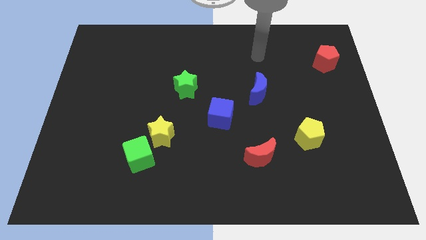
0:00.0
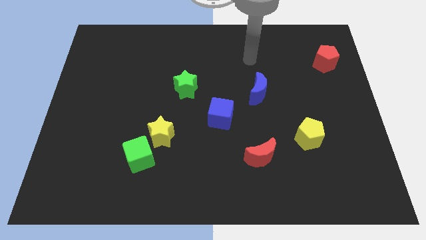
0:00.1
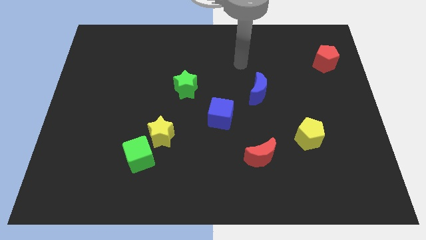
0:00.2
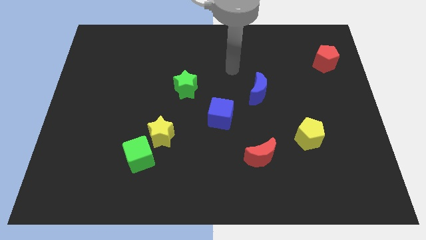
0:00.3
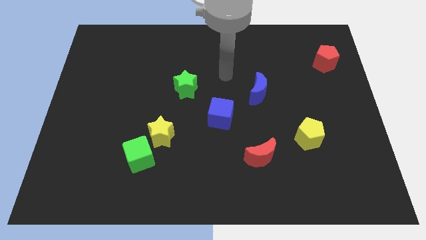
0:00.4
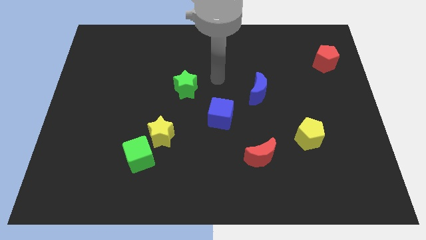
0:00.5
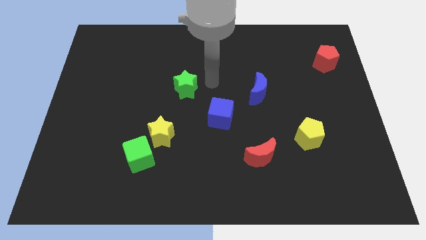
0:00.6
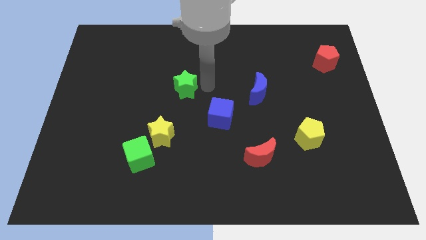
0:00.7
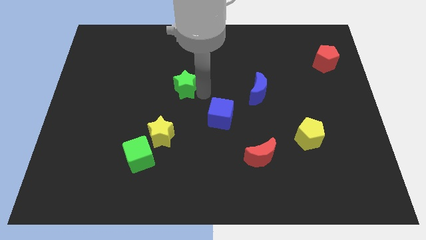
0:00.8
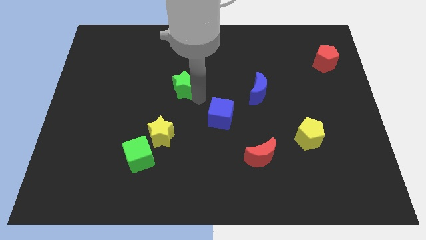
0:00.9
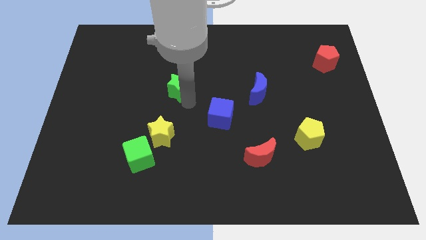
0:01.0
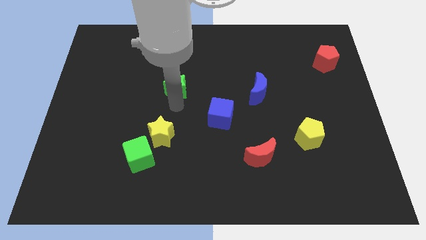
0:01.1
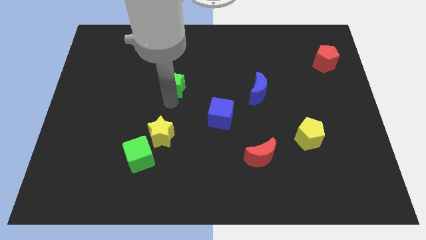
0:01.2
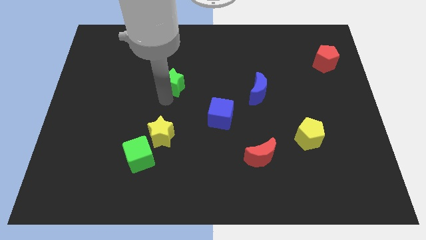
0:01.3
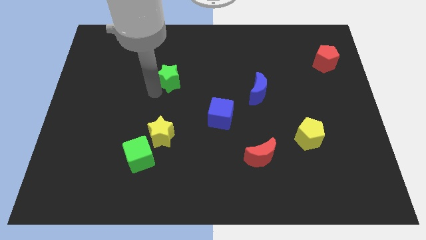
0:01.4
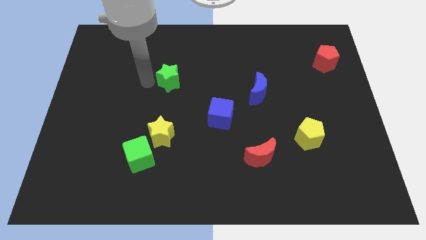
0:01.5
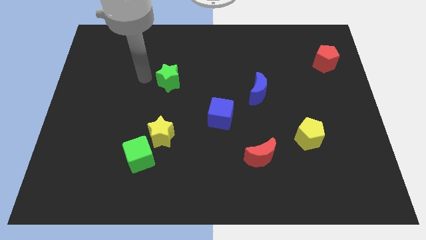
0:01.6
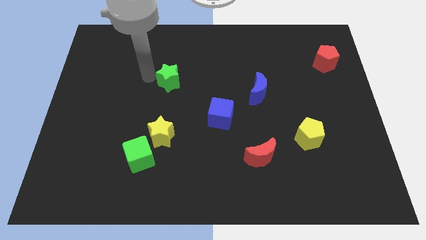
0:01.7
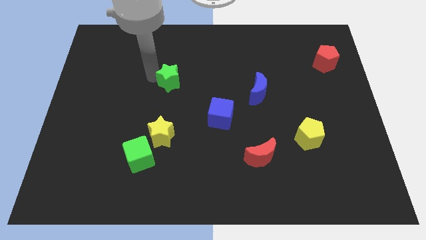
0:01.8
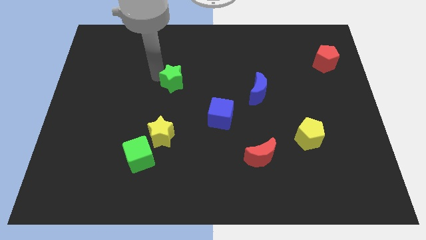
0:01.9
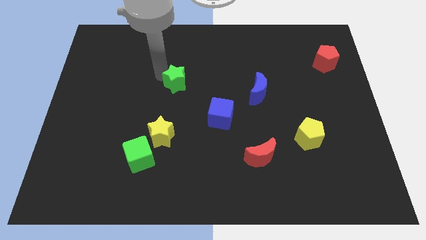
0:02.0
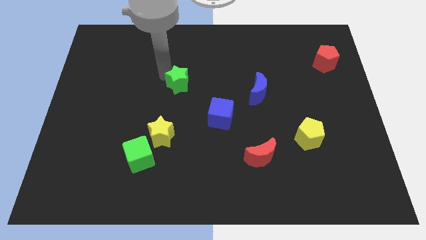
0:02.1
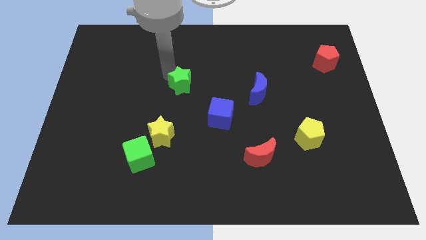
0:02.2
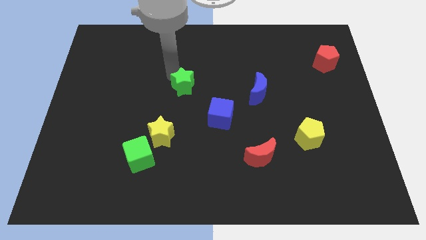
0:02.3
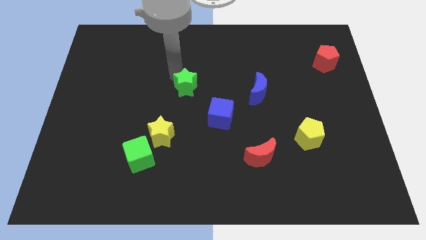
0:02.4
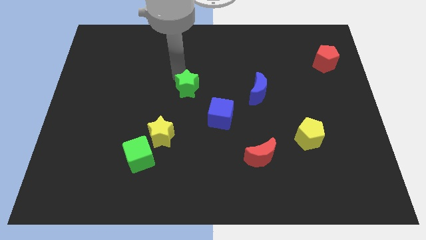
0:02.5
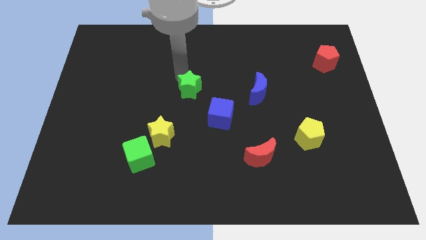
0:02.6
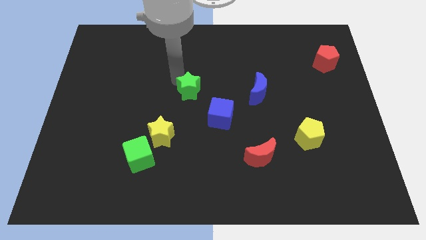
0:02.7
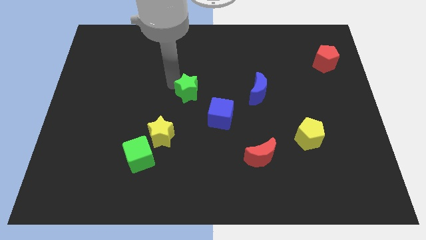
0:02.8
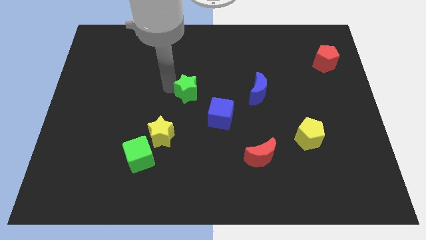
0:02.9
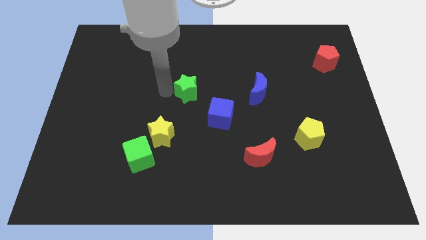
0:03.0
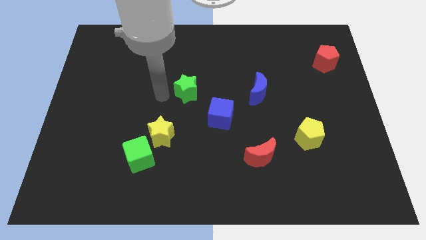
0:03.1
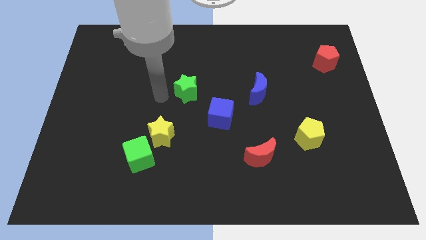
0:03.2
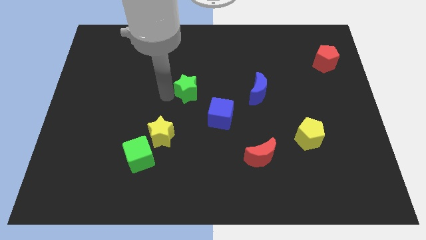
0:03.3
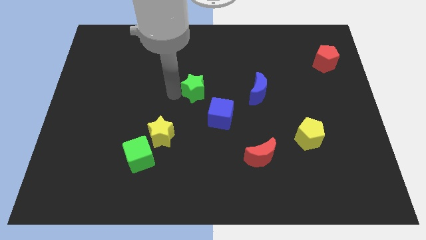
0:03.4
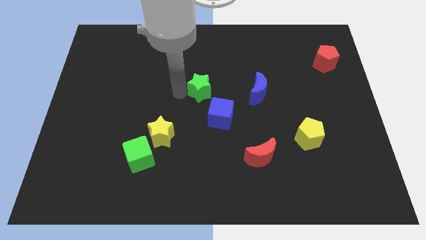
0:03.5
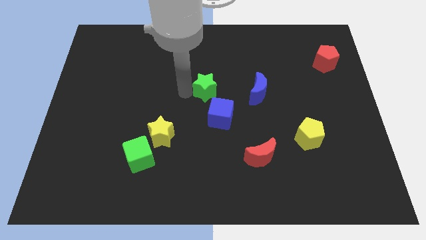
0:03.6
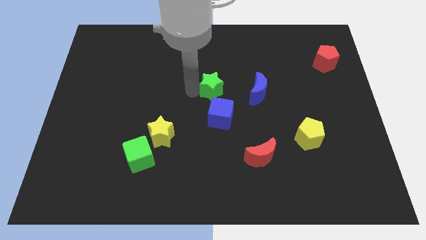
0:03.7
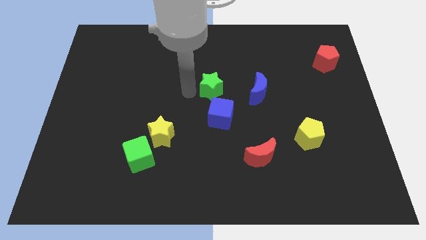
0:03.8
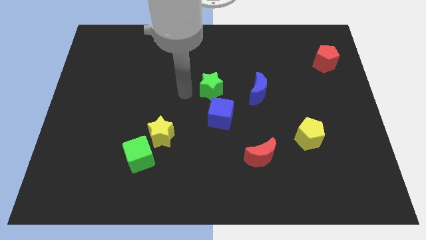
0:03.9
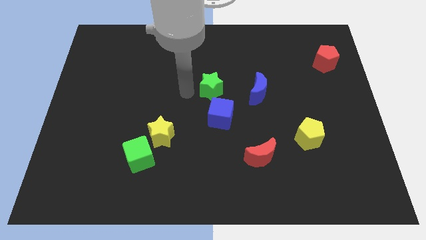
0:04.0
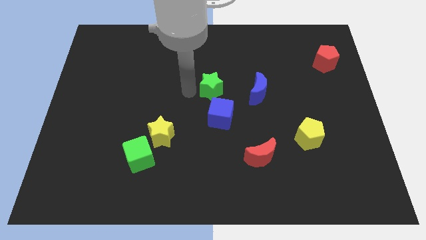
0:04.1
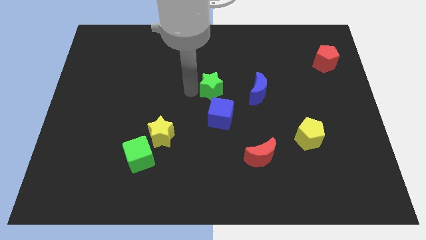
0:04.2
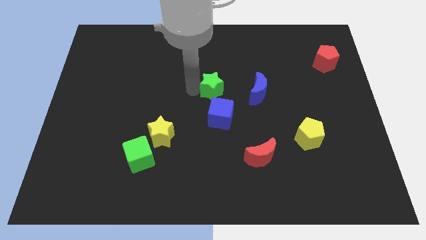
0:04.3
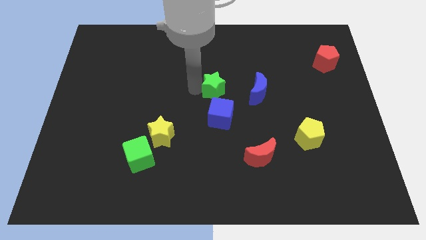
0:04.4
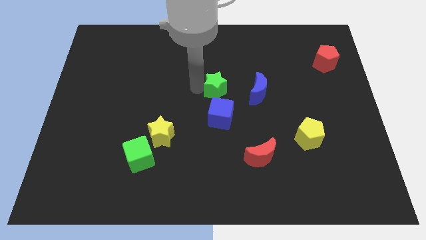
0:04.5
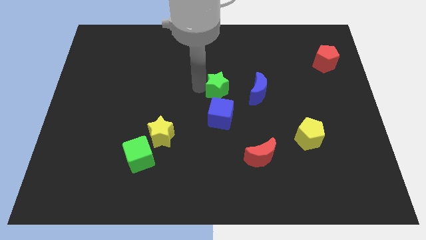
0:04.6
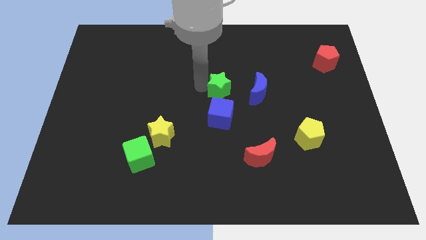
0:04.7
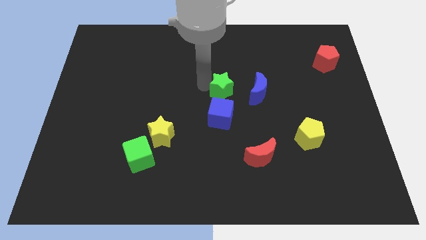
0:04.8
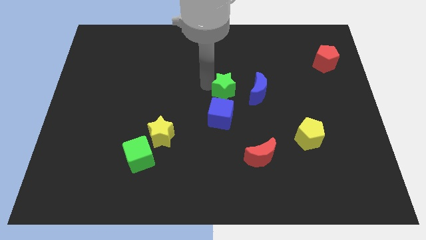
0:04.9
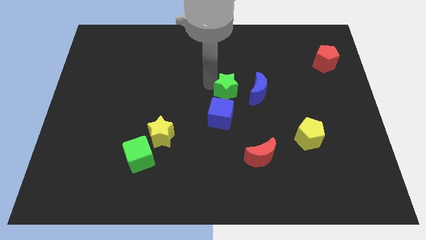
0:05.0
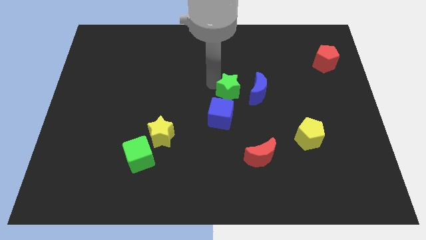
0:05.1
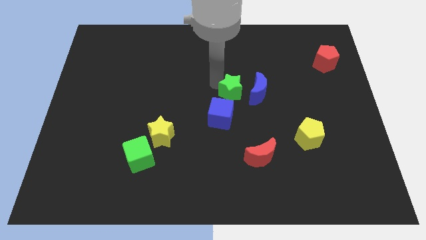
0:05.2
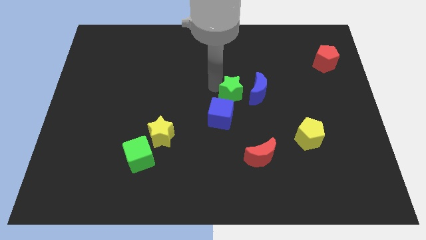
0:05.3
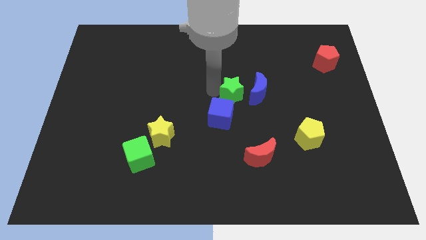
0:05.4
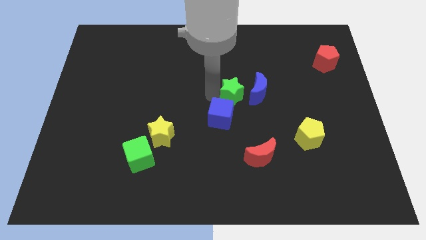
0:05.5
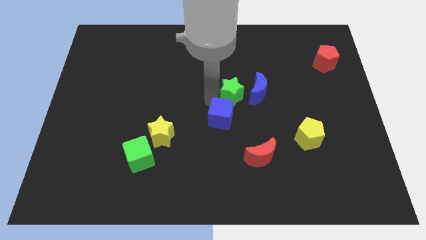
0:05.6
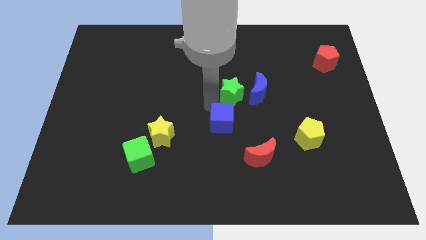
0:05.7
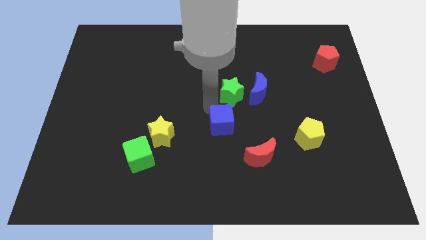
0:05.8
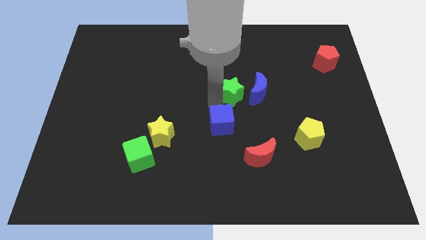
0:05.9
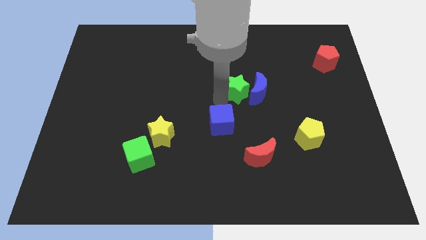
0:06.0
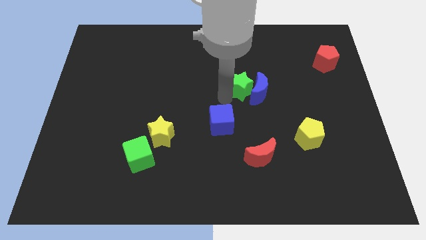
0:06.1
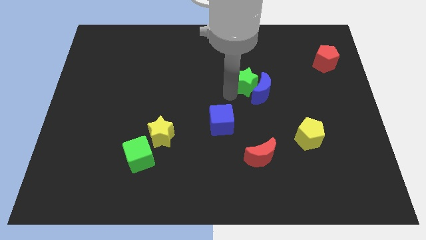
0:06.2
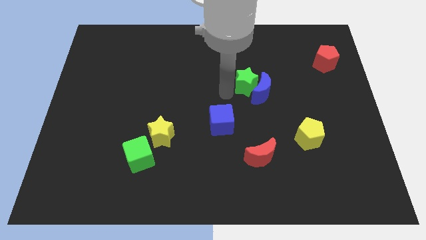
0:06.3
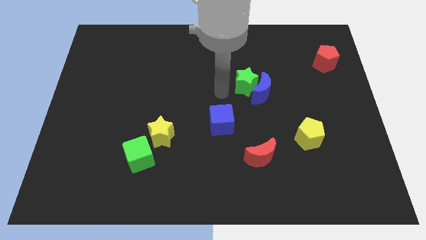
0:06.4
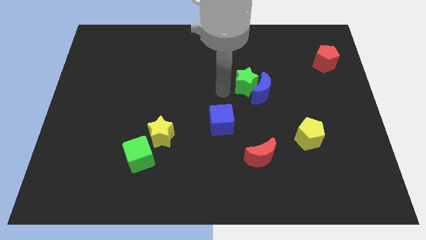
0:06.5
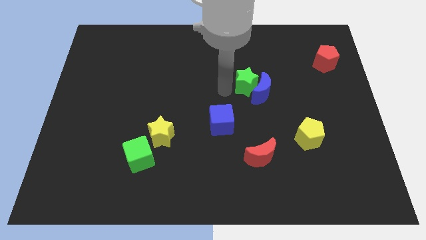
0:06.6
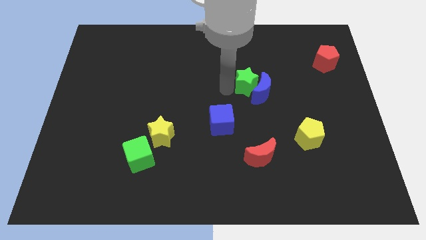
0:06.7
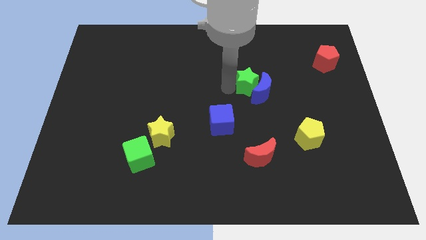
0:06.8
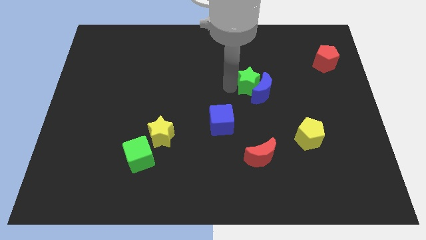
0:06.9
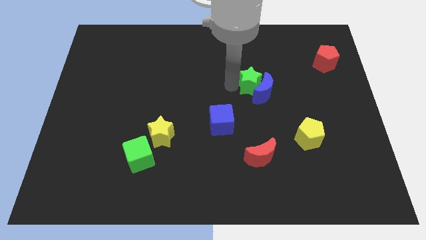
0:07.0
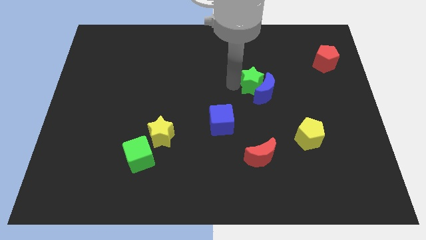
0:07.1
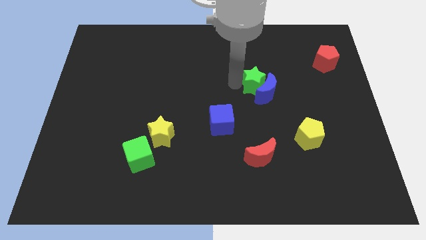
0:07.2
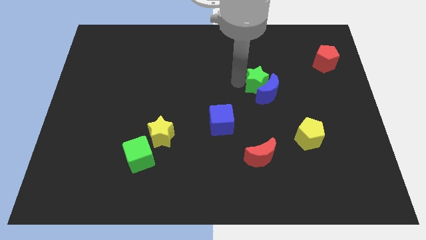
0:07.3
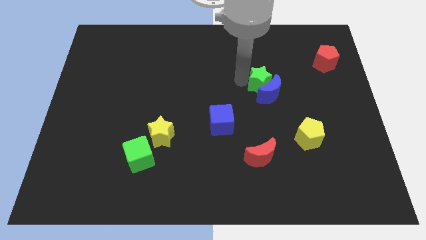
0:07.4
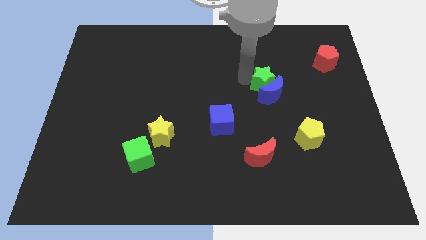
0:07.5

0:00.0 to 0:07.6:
move the green star to the top right side of the blue moon
